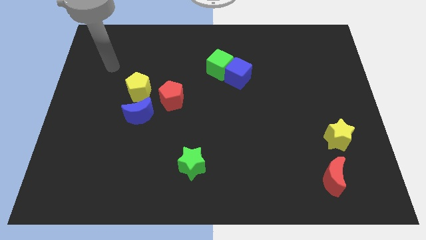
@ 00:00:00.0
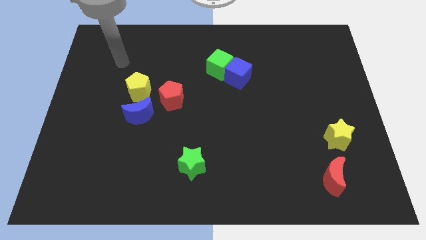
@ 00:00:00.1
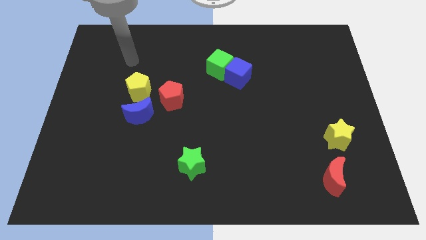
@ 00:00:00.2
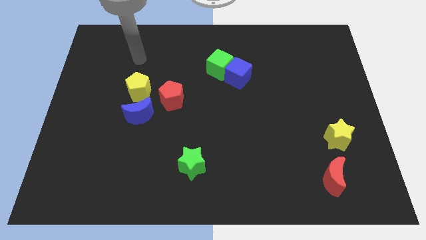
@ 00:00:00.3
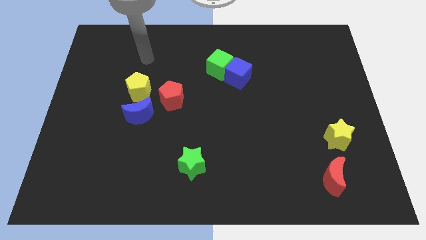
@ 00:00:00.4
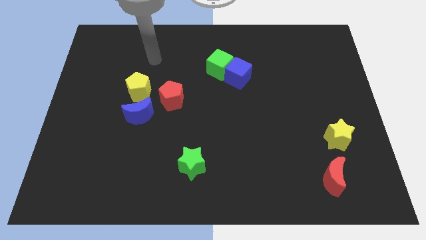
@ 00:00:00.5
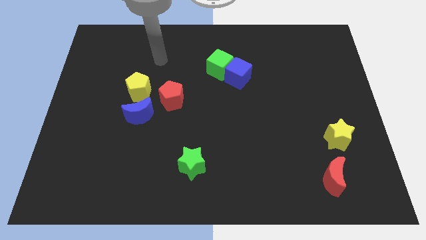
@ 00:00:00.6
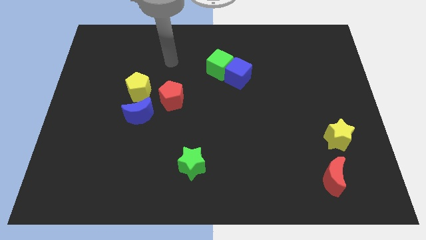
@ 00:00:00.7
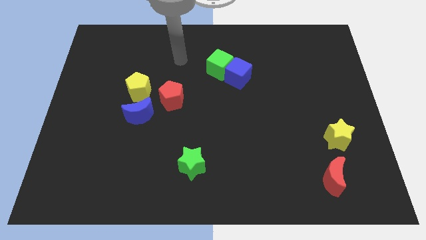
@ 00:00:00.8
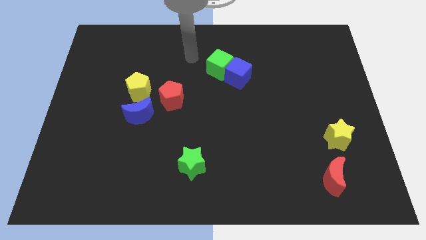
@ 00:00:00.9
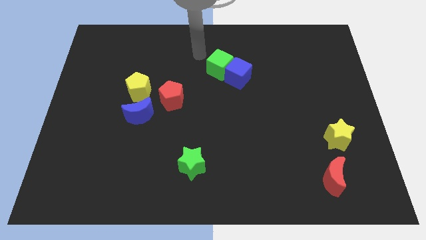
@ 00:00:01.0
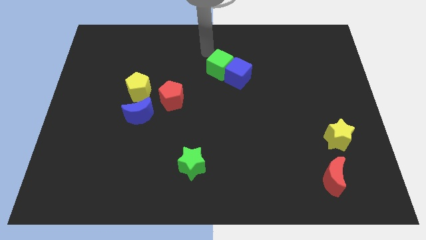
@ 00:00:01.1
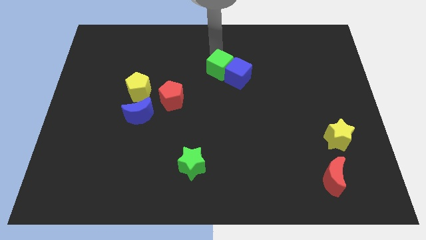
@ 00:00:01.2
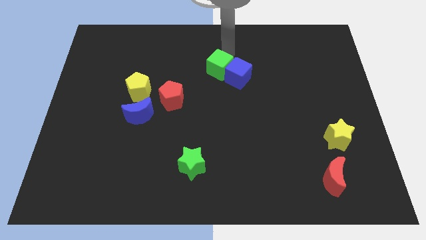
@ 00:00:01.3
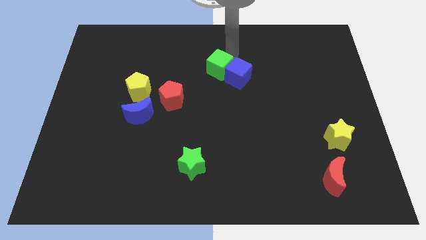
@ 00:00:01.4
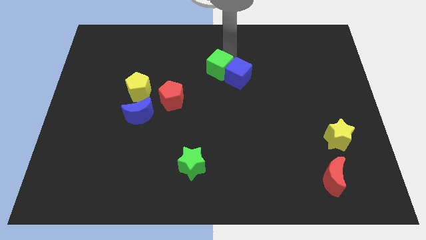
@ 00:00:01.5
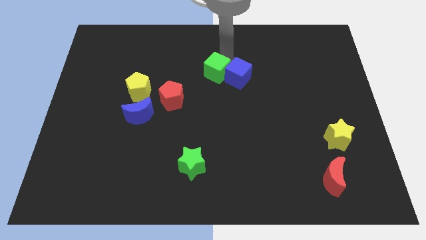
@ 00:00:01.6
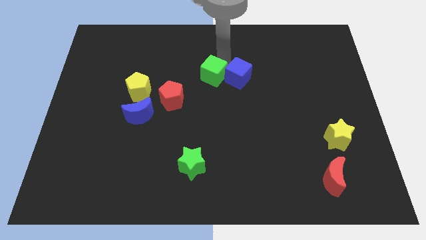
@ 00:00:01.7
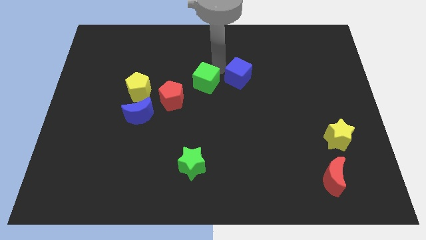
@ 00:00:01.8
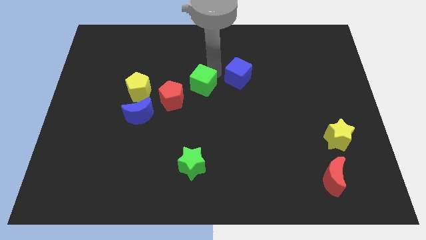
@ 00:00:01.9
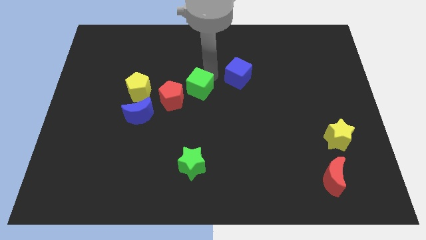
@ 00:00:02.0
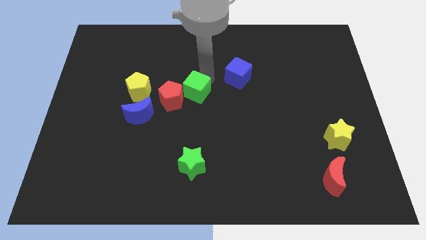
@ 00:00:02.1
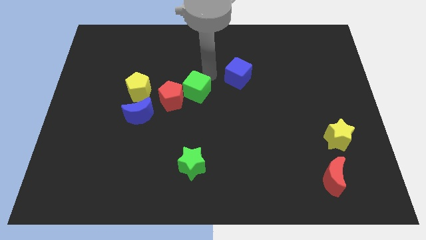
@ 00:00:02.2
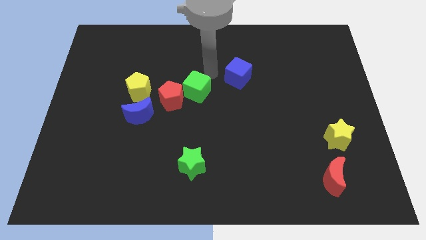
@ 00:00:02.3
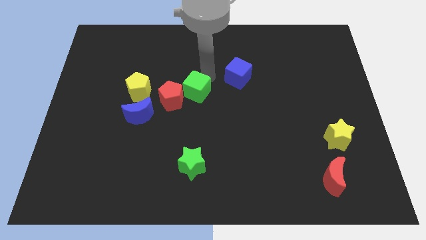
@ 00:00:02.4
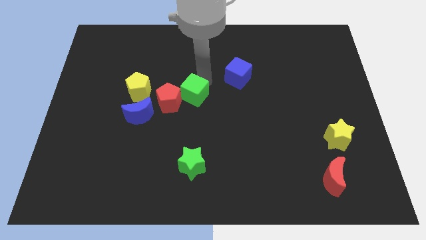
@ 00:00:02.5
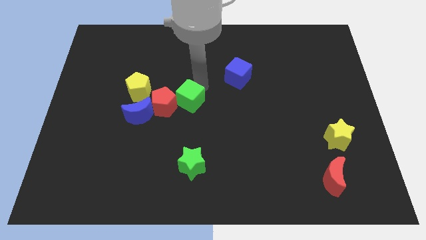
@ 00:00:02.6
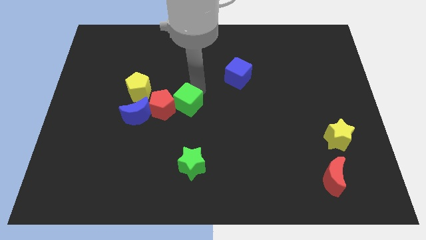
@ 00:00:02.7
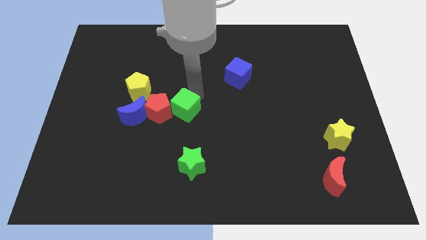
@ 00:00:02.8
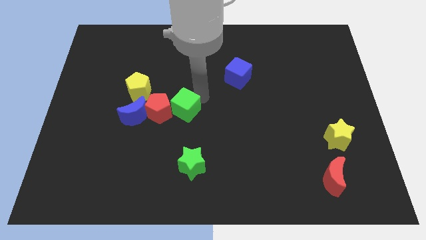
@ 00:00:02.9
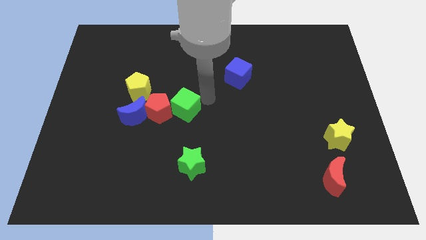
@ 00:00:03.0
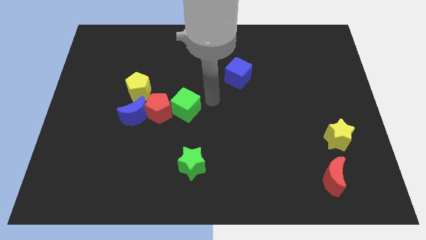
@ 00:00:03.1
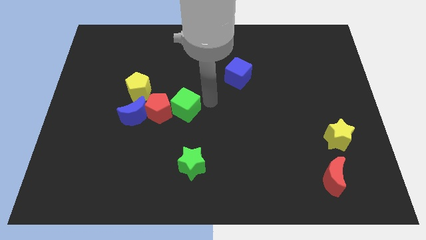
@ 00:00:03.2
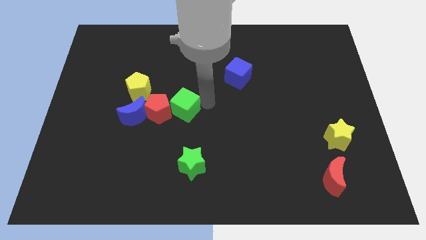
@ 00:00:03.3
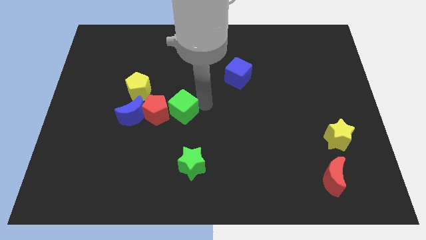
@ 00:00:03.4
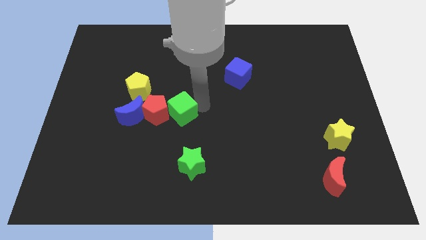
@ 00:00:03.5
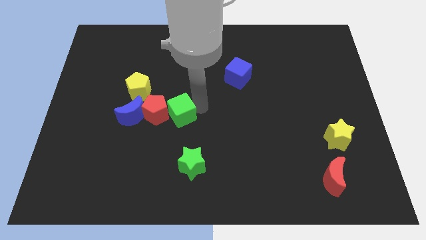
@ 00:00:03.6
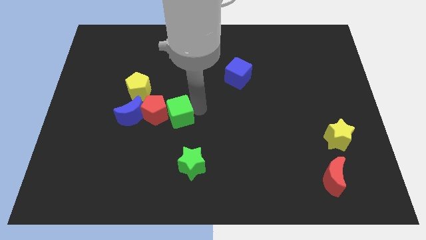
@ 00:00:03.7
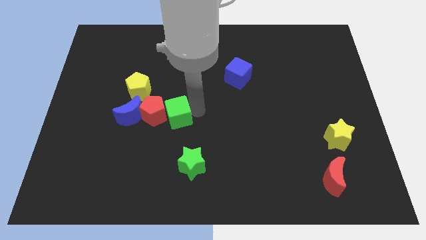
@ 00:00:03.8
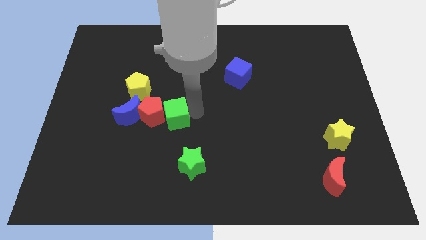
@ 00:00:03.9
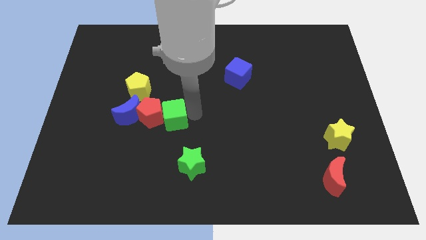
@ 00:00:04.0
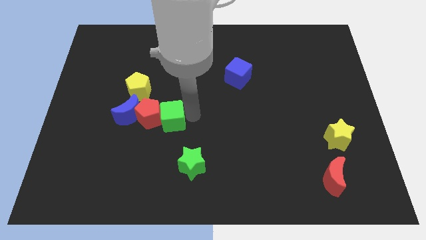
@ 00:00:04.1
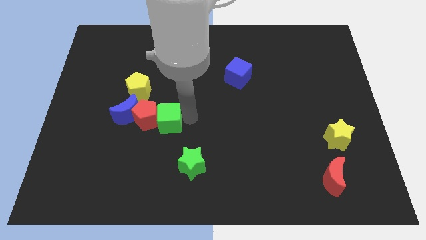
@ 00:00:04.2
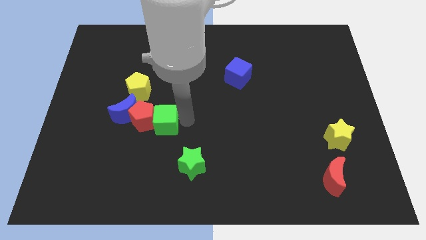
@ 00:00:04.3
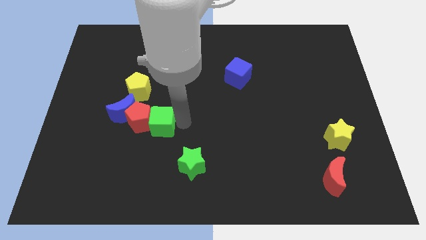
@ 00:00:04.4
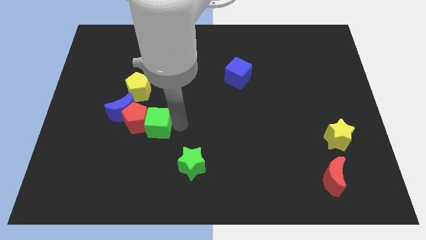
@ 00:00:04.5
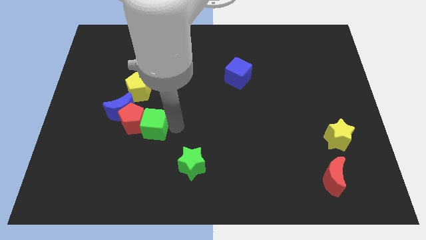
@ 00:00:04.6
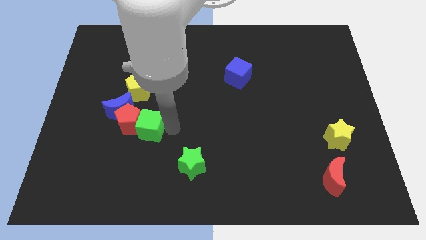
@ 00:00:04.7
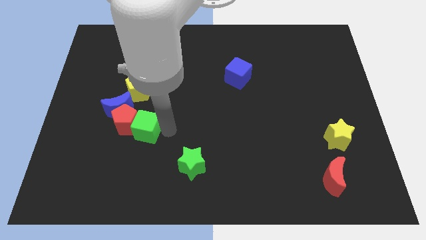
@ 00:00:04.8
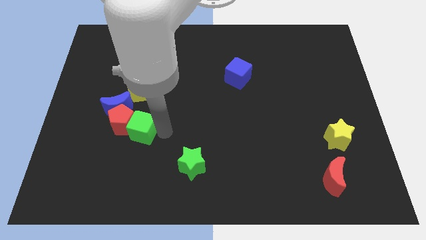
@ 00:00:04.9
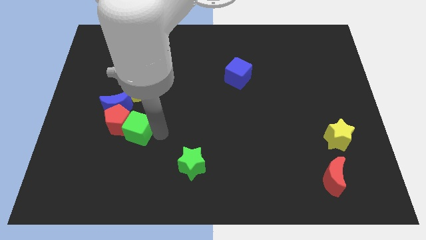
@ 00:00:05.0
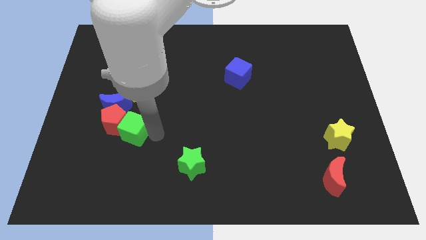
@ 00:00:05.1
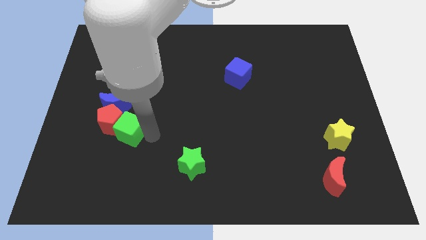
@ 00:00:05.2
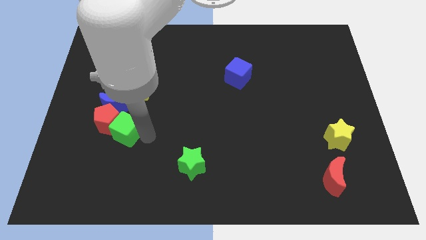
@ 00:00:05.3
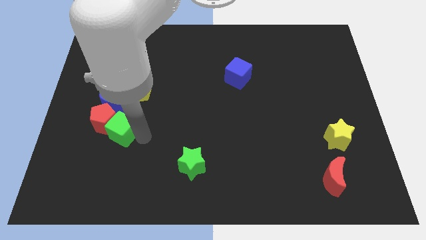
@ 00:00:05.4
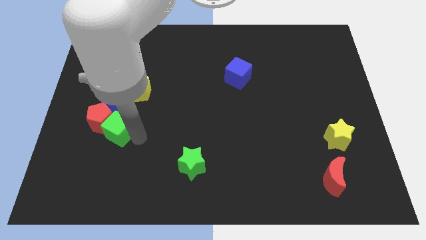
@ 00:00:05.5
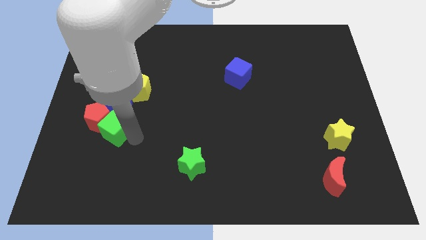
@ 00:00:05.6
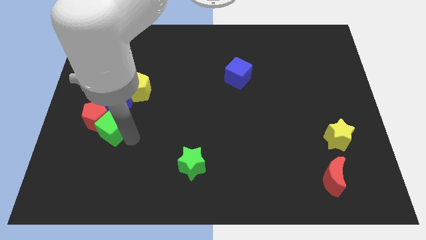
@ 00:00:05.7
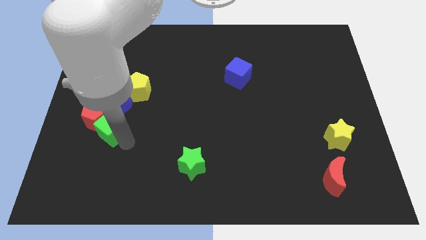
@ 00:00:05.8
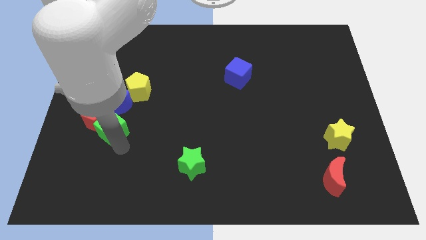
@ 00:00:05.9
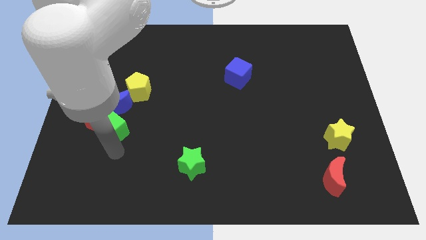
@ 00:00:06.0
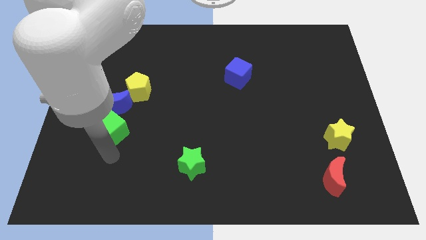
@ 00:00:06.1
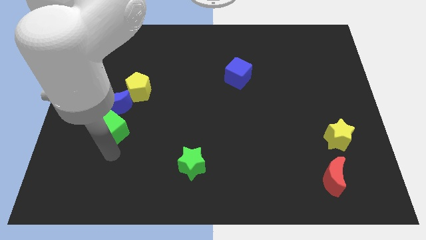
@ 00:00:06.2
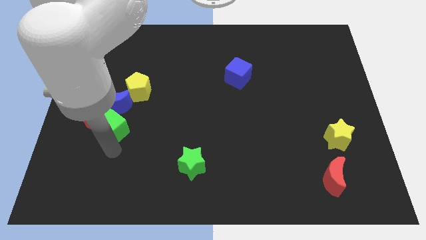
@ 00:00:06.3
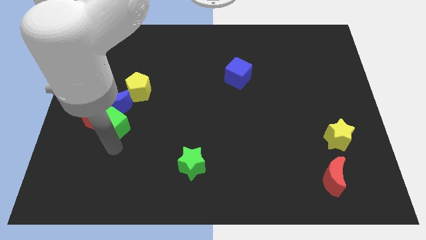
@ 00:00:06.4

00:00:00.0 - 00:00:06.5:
move the green cube towards the blue moon

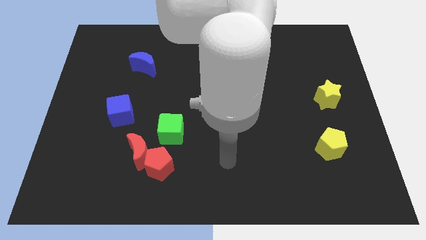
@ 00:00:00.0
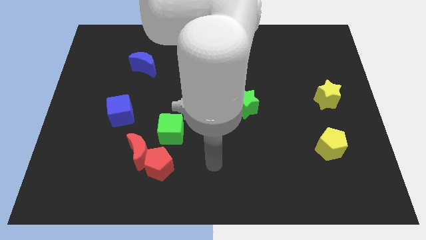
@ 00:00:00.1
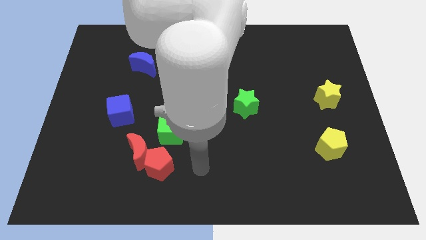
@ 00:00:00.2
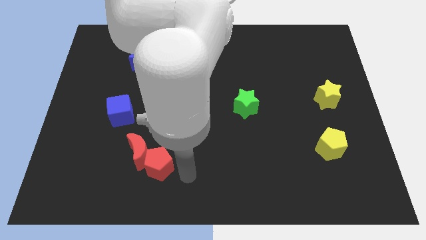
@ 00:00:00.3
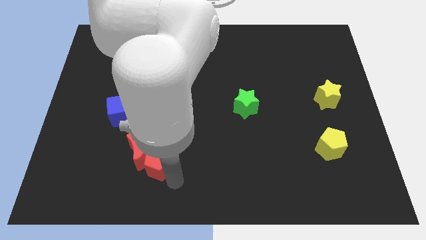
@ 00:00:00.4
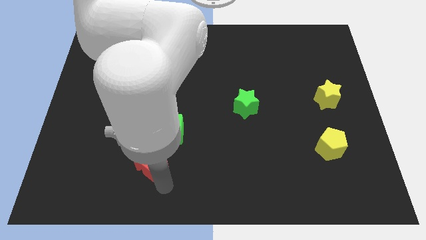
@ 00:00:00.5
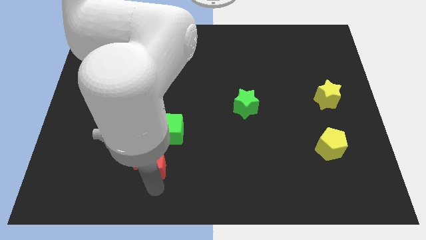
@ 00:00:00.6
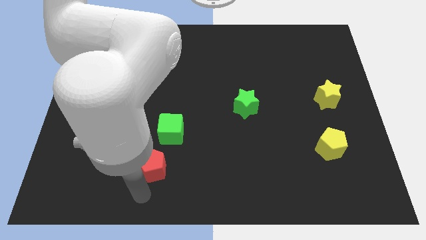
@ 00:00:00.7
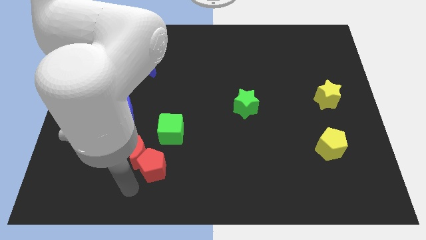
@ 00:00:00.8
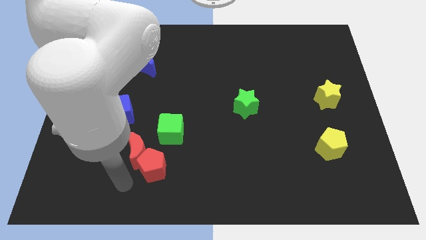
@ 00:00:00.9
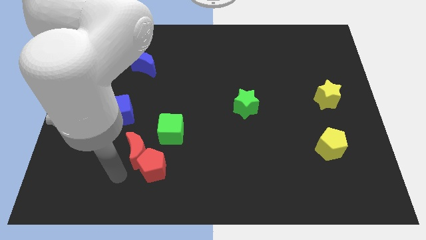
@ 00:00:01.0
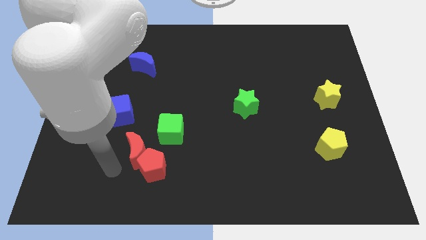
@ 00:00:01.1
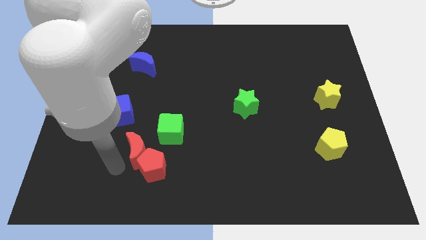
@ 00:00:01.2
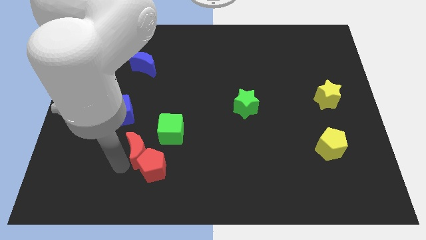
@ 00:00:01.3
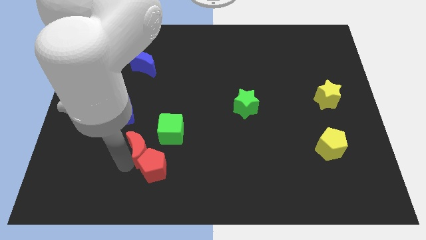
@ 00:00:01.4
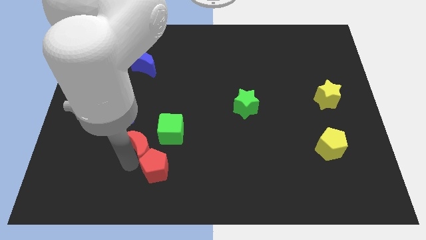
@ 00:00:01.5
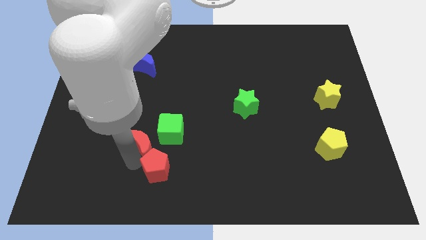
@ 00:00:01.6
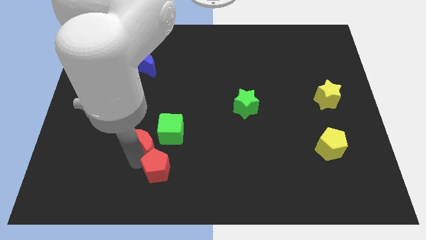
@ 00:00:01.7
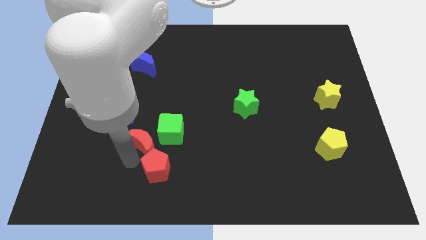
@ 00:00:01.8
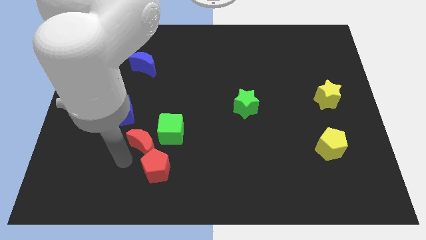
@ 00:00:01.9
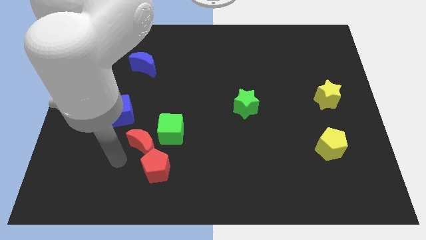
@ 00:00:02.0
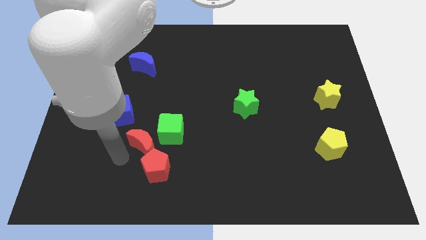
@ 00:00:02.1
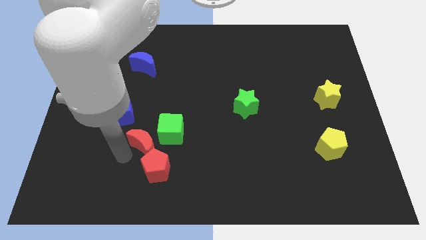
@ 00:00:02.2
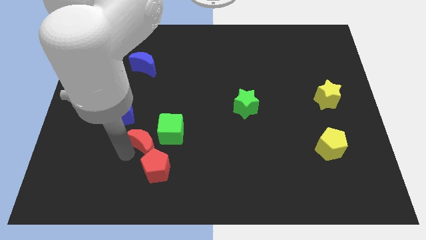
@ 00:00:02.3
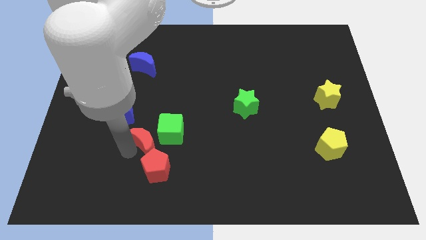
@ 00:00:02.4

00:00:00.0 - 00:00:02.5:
push the red moon to the green cube
